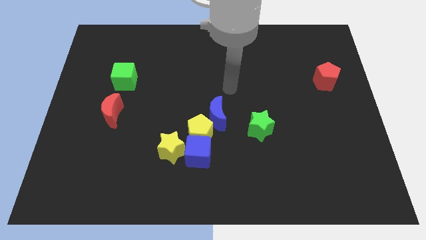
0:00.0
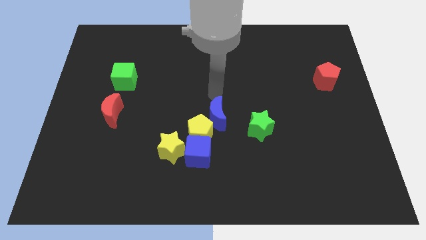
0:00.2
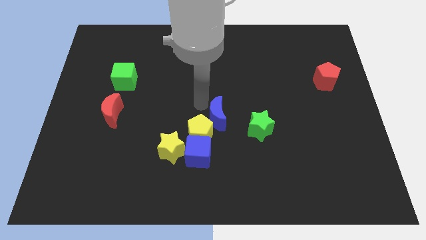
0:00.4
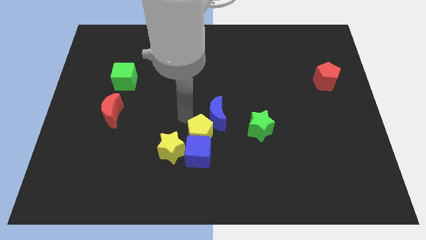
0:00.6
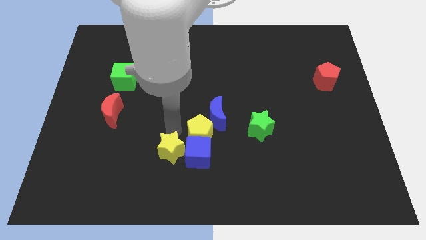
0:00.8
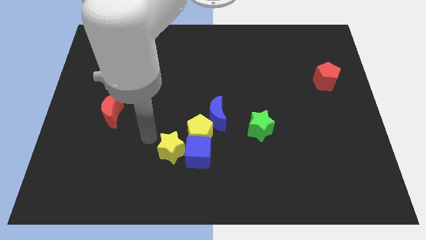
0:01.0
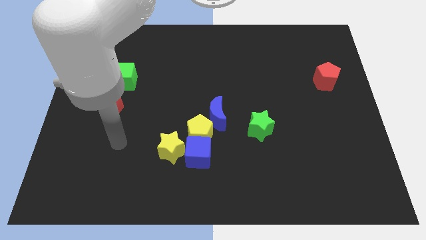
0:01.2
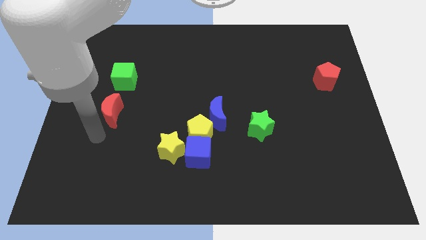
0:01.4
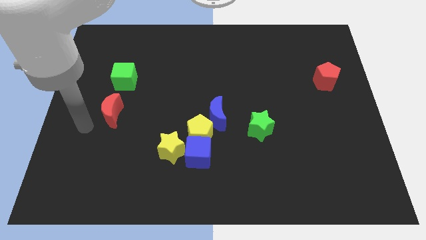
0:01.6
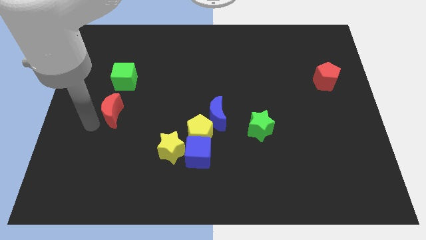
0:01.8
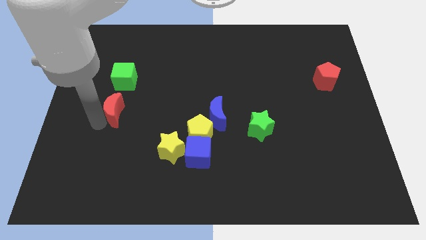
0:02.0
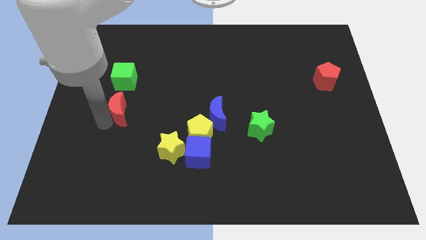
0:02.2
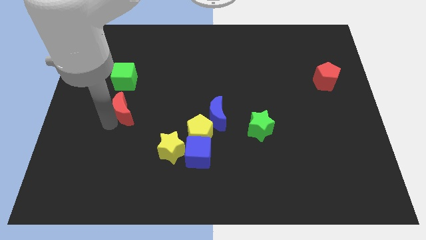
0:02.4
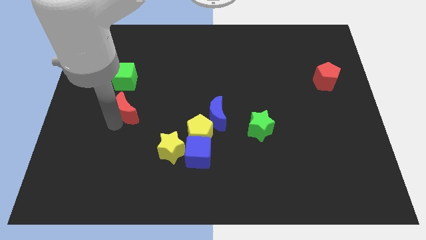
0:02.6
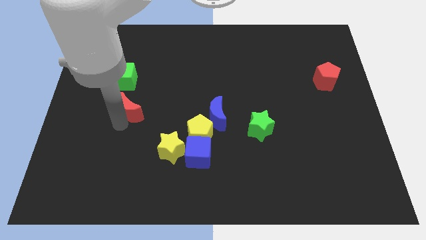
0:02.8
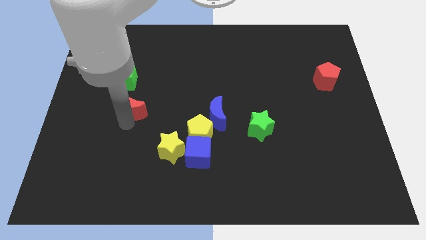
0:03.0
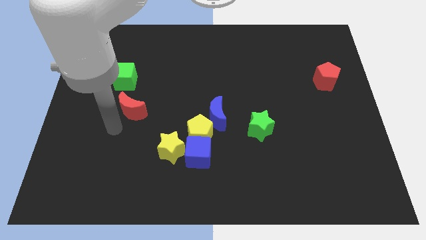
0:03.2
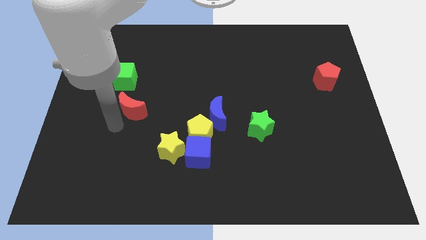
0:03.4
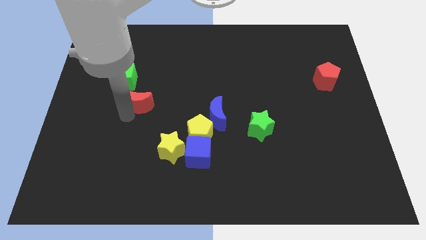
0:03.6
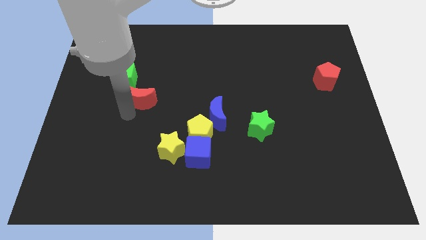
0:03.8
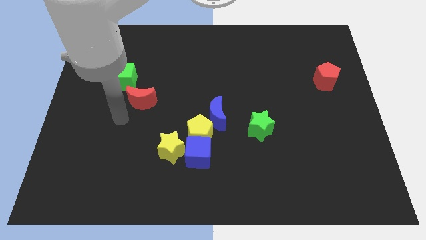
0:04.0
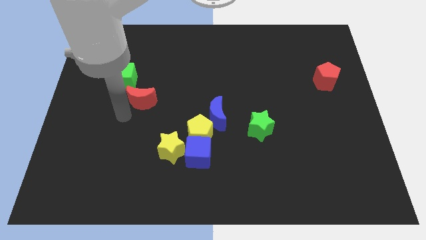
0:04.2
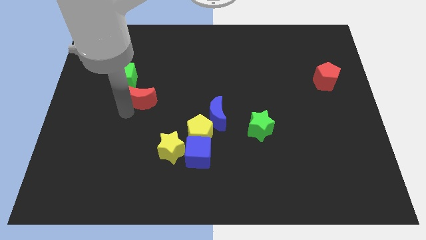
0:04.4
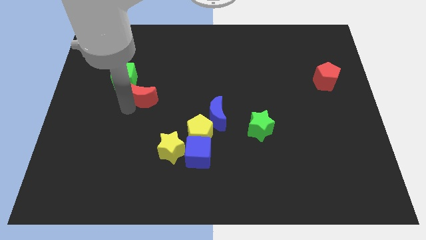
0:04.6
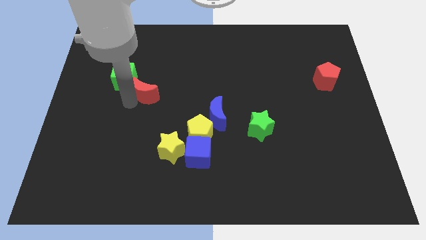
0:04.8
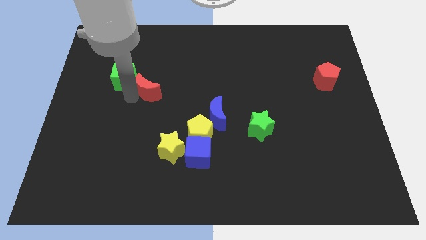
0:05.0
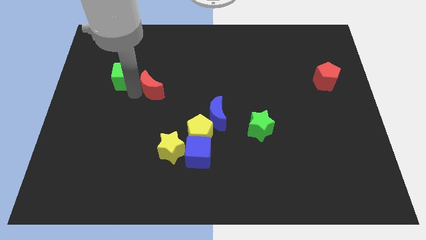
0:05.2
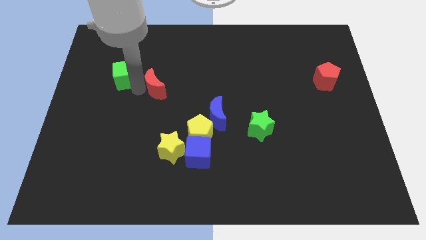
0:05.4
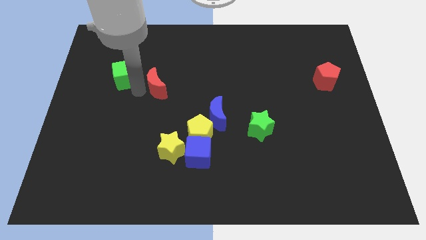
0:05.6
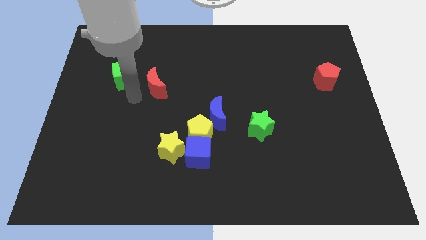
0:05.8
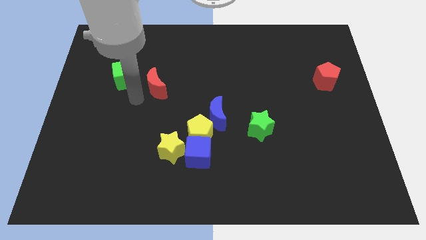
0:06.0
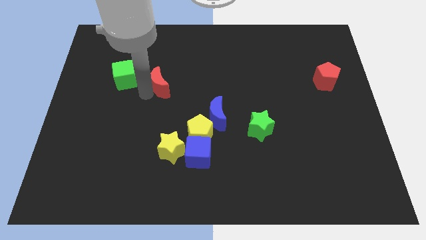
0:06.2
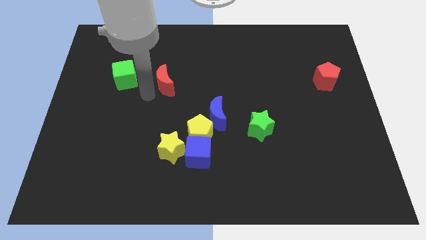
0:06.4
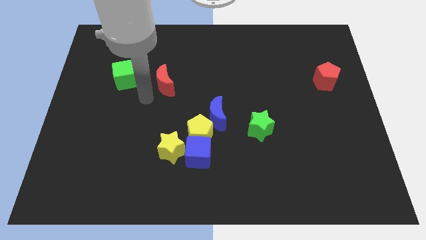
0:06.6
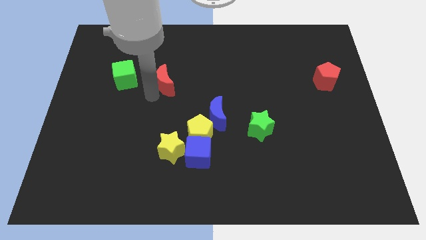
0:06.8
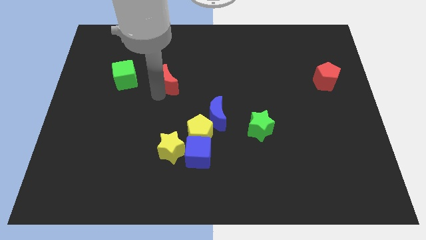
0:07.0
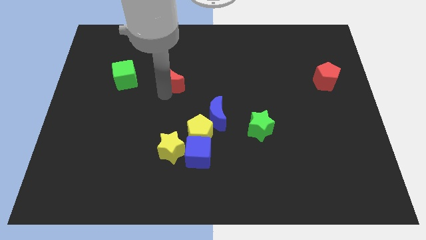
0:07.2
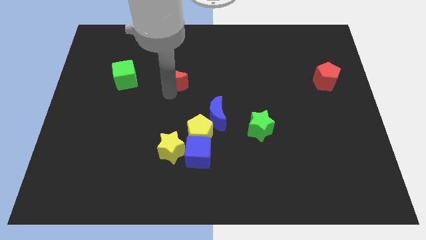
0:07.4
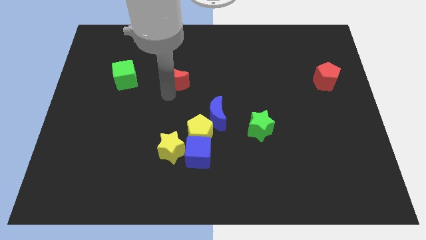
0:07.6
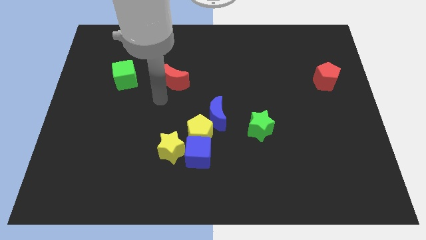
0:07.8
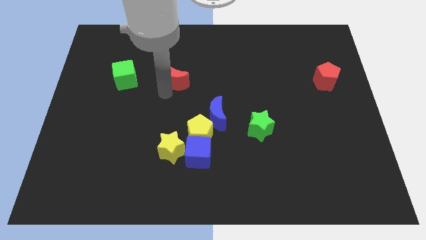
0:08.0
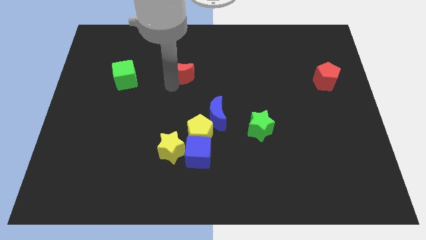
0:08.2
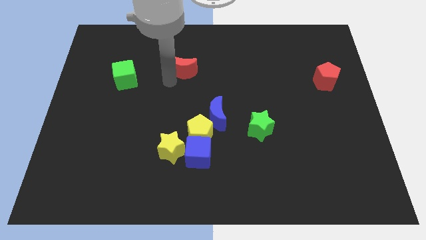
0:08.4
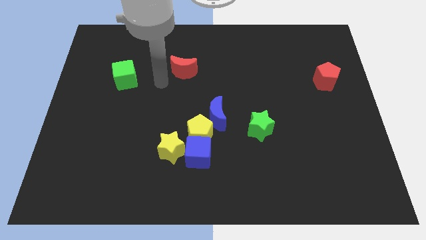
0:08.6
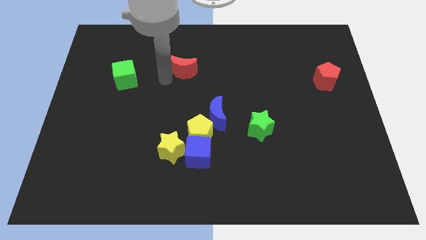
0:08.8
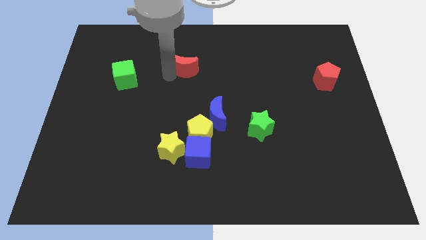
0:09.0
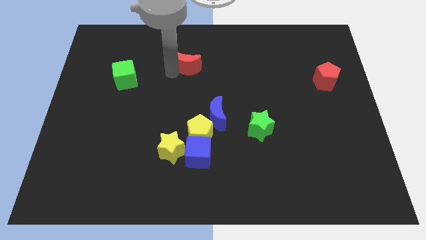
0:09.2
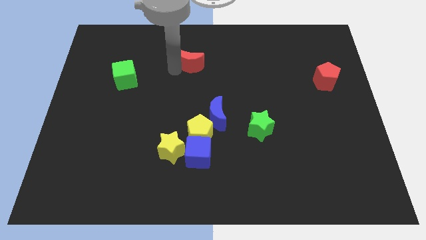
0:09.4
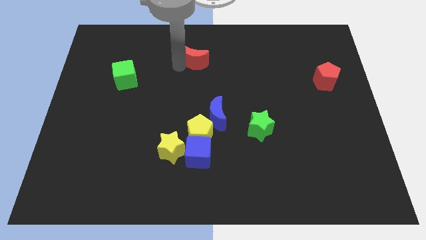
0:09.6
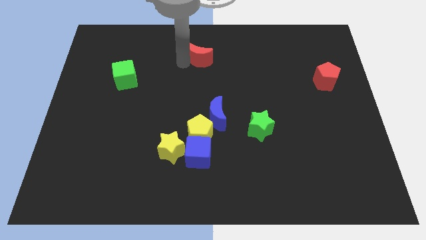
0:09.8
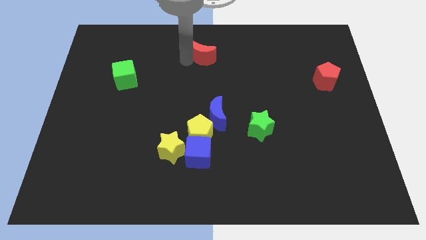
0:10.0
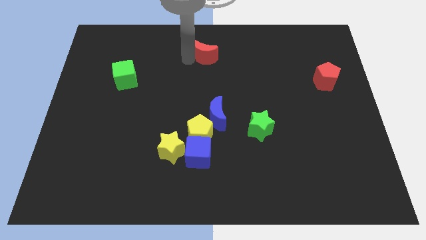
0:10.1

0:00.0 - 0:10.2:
push the red moon to the top

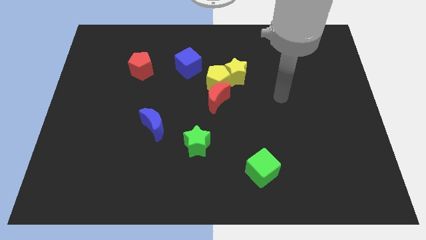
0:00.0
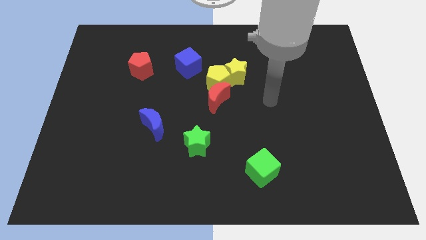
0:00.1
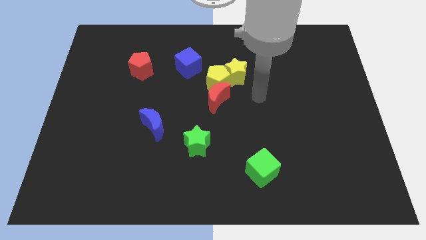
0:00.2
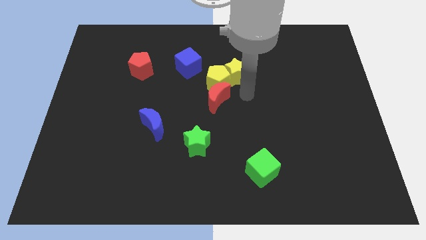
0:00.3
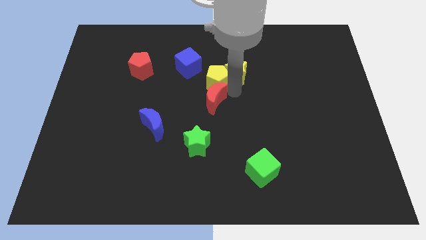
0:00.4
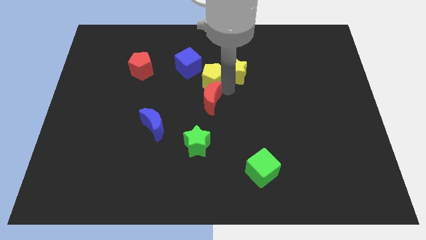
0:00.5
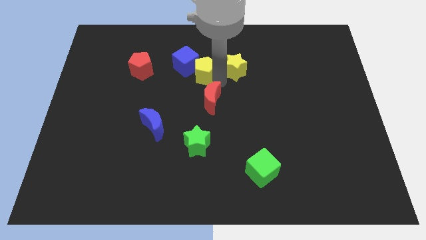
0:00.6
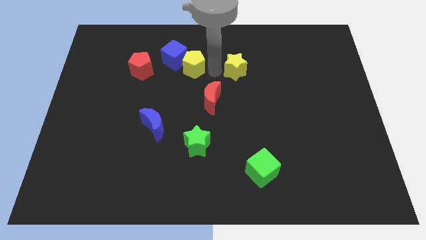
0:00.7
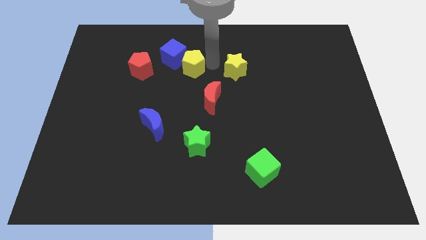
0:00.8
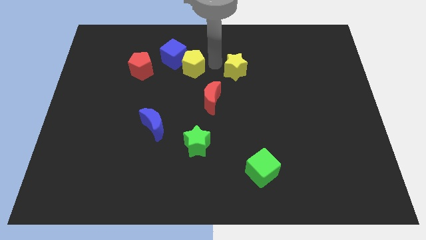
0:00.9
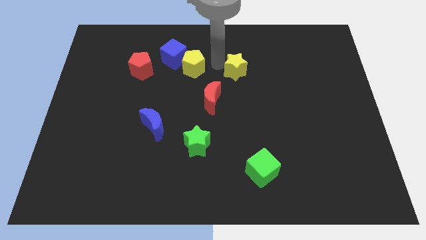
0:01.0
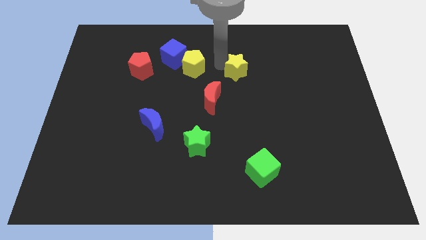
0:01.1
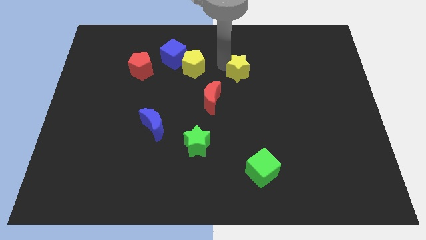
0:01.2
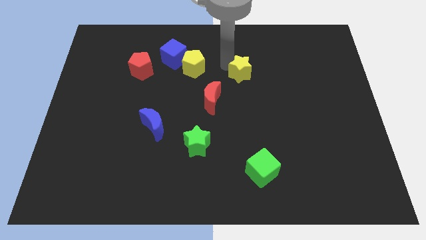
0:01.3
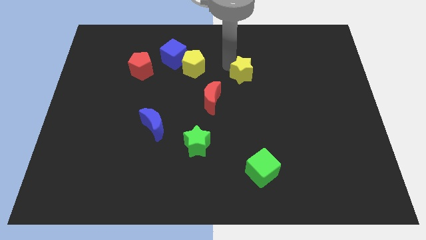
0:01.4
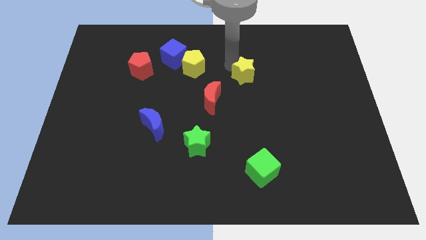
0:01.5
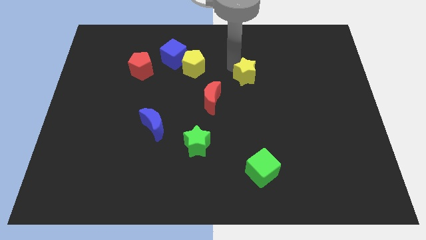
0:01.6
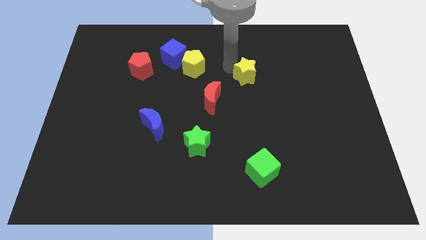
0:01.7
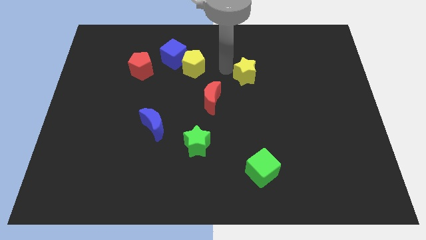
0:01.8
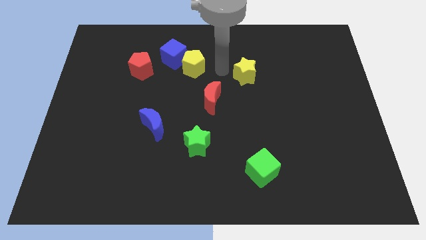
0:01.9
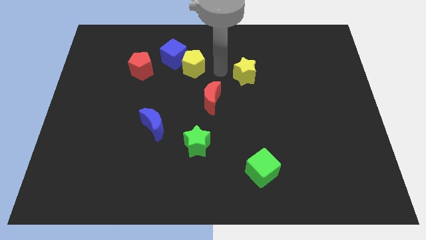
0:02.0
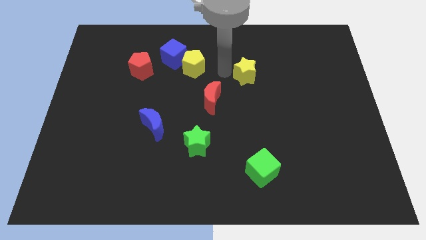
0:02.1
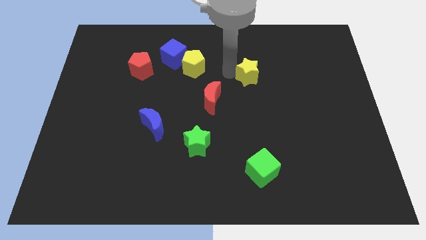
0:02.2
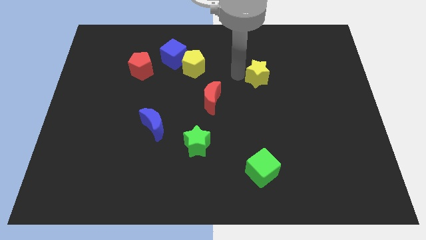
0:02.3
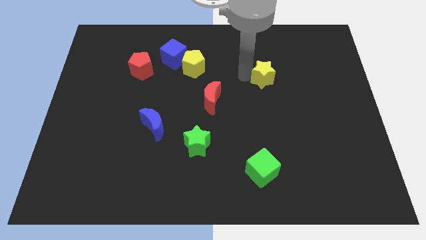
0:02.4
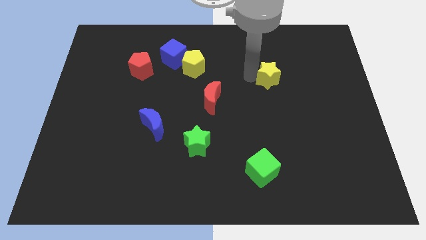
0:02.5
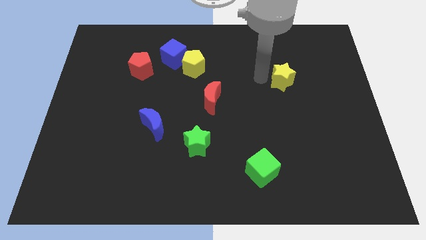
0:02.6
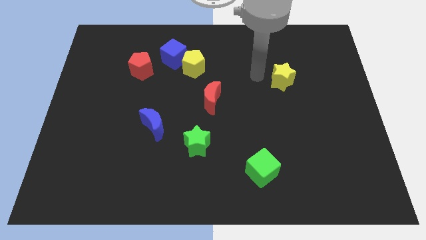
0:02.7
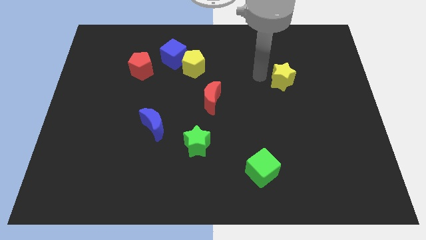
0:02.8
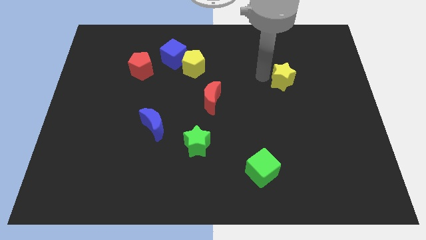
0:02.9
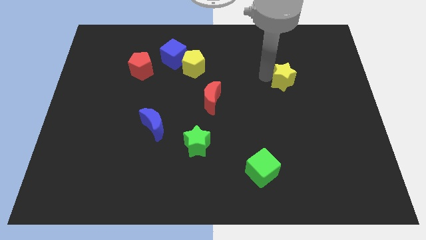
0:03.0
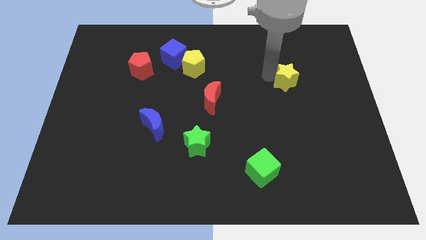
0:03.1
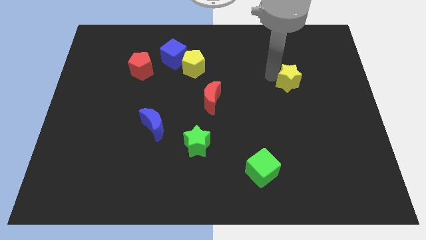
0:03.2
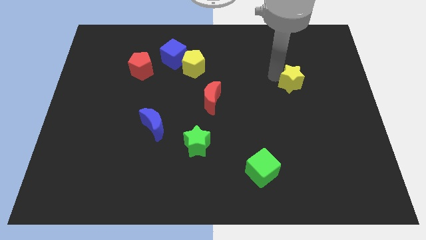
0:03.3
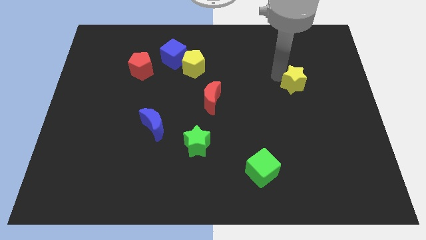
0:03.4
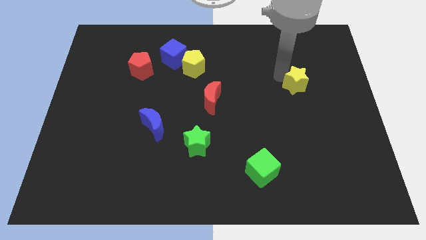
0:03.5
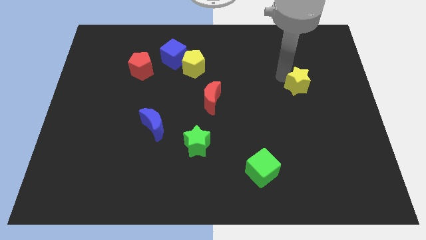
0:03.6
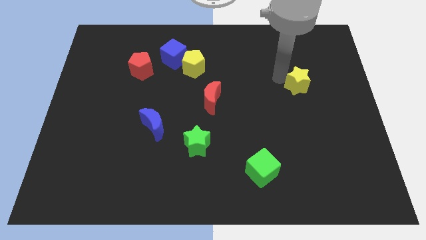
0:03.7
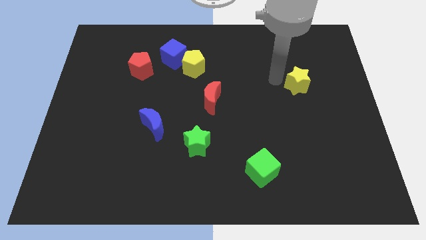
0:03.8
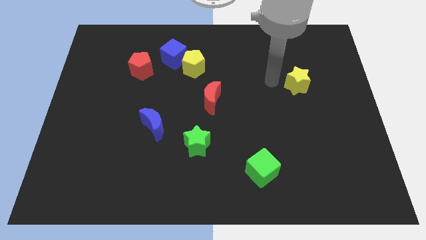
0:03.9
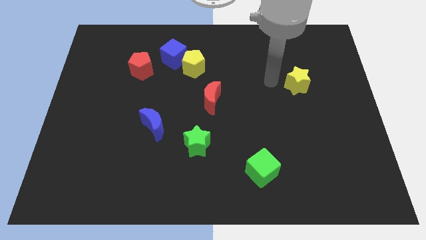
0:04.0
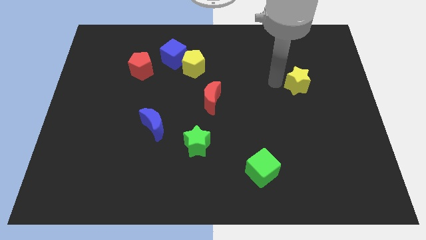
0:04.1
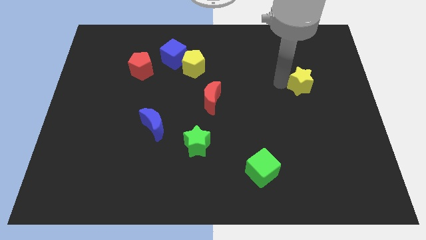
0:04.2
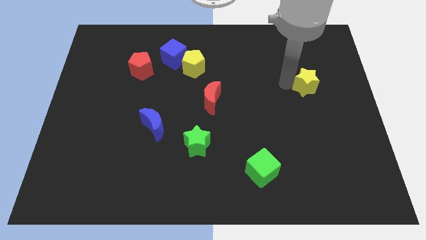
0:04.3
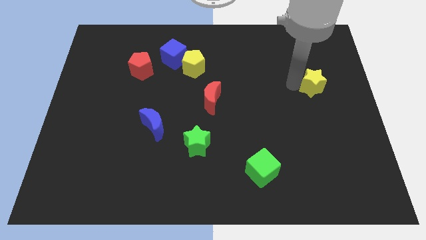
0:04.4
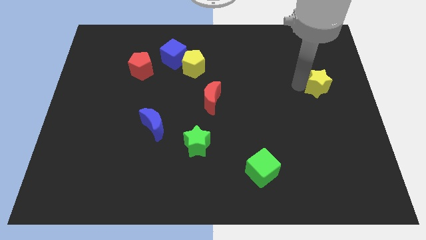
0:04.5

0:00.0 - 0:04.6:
slide the yellow star to the right side
